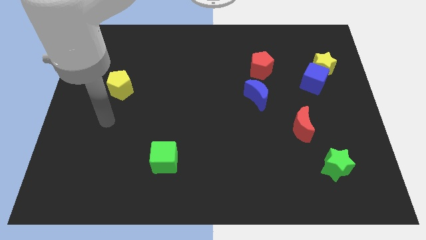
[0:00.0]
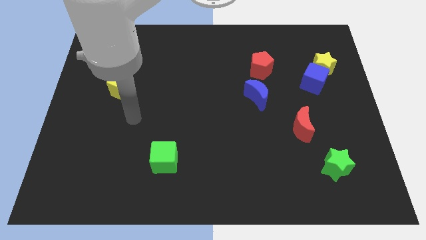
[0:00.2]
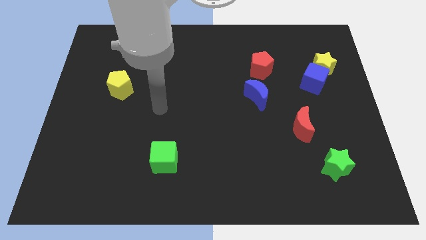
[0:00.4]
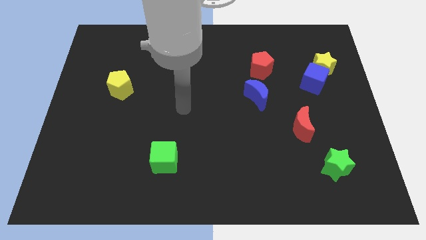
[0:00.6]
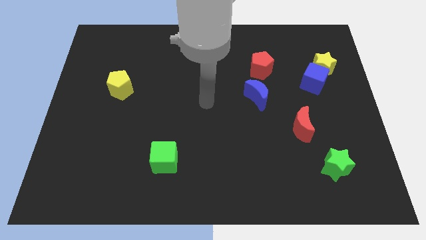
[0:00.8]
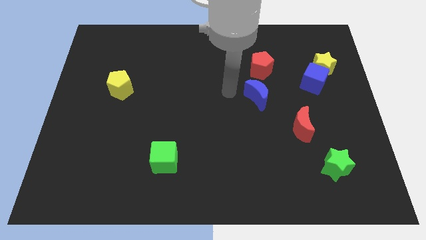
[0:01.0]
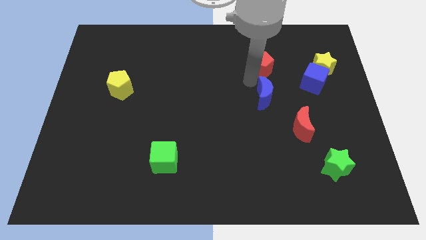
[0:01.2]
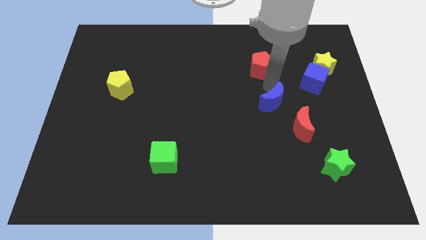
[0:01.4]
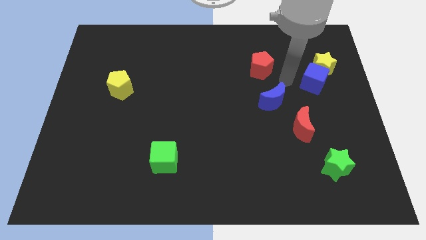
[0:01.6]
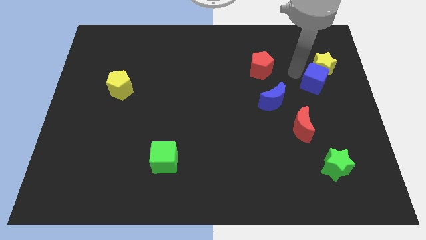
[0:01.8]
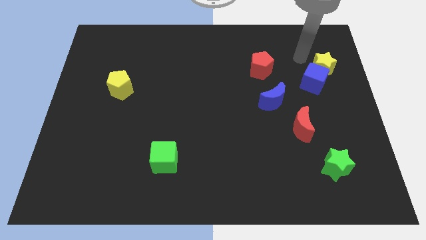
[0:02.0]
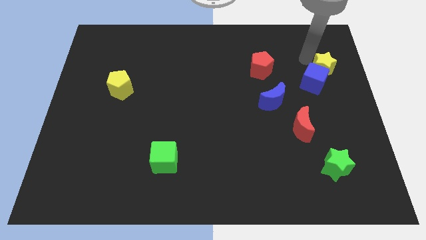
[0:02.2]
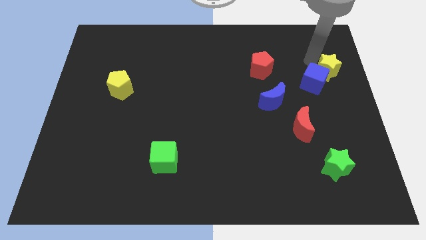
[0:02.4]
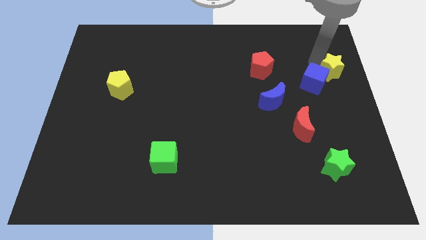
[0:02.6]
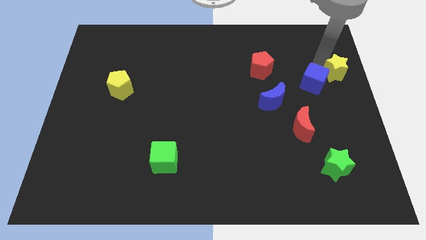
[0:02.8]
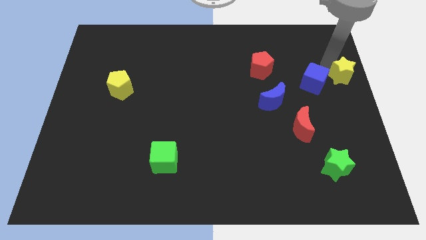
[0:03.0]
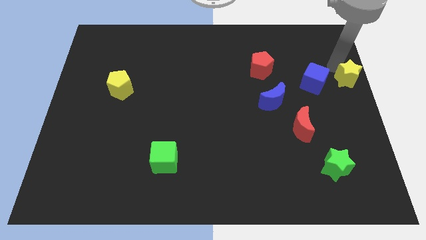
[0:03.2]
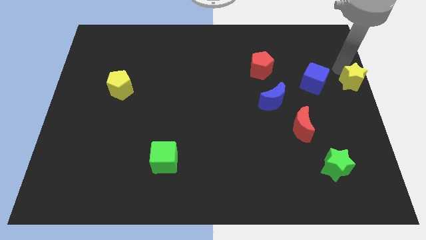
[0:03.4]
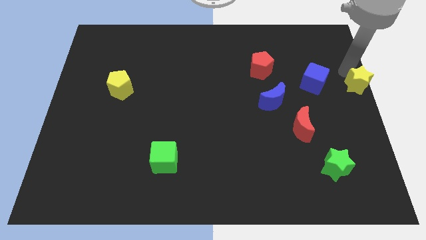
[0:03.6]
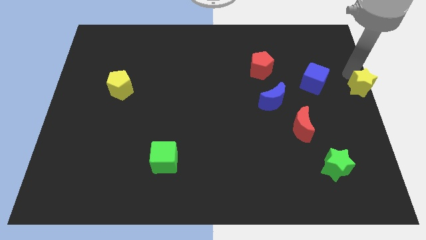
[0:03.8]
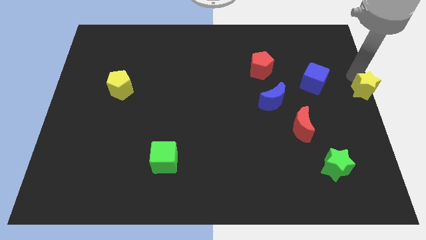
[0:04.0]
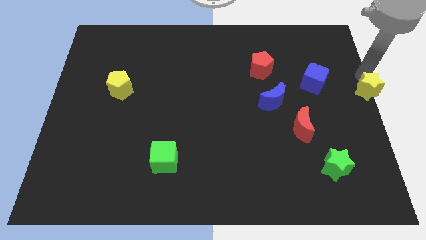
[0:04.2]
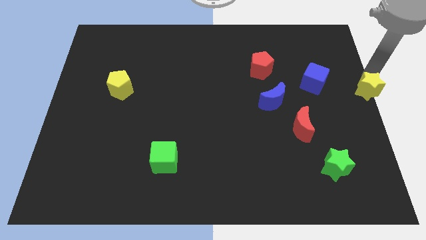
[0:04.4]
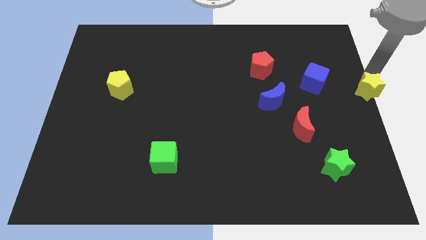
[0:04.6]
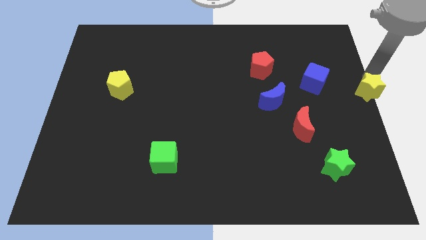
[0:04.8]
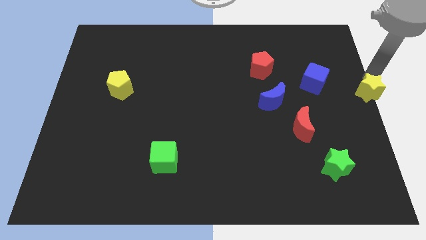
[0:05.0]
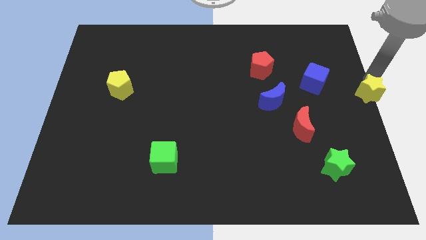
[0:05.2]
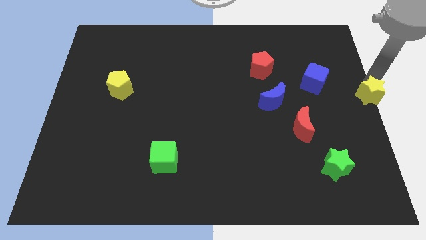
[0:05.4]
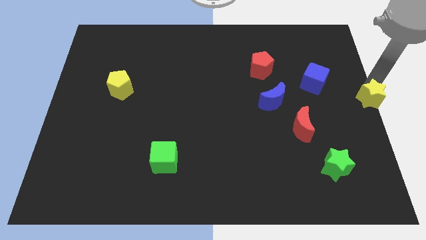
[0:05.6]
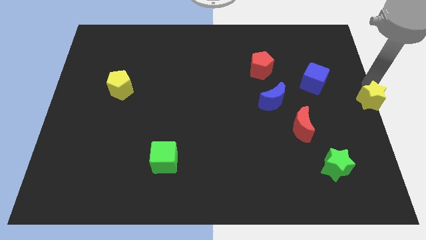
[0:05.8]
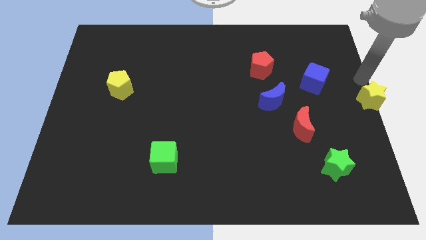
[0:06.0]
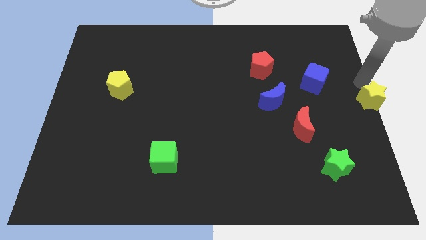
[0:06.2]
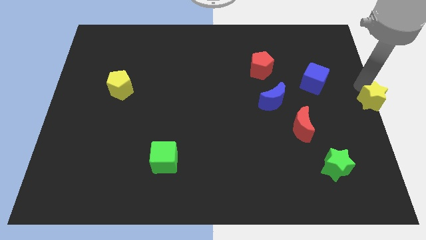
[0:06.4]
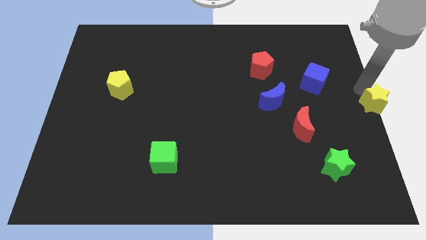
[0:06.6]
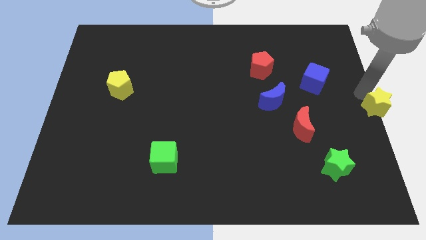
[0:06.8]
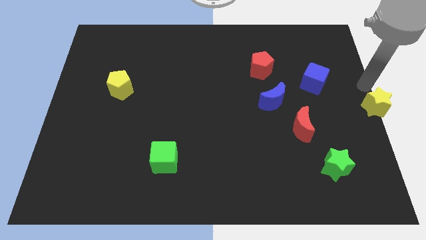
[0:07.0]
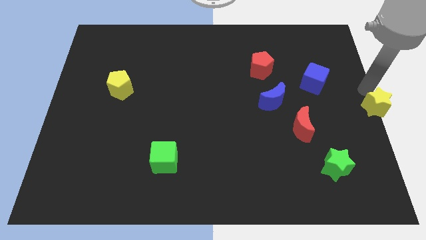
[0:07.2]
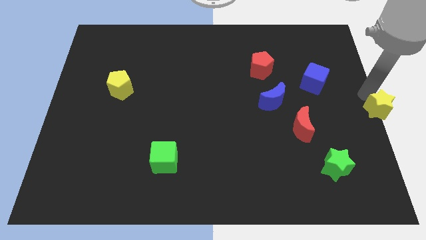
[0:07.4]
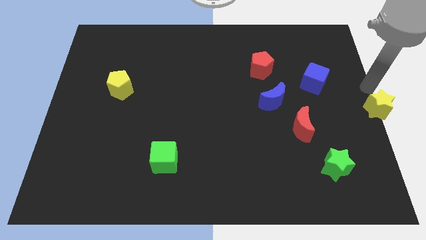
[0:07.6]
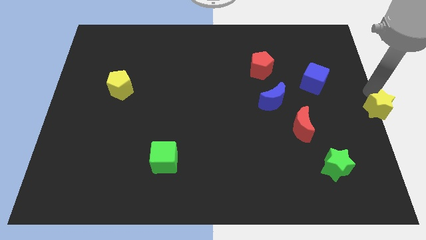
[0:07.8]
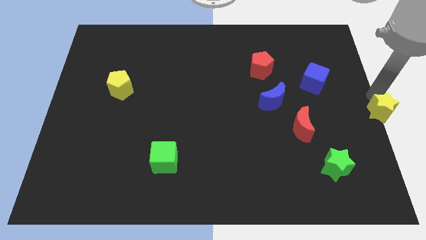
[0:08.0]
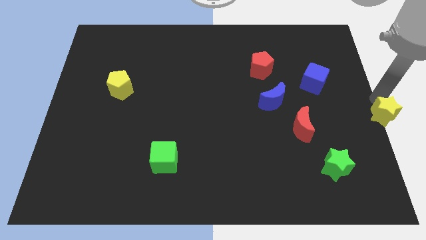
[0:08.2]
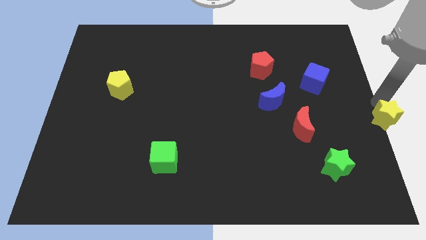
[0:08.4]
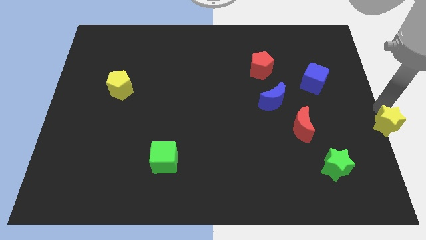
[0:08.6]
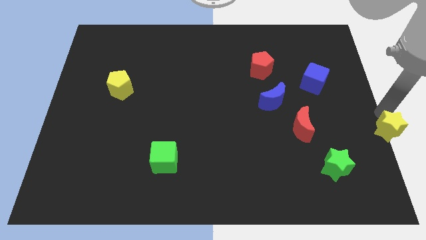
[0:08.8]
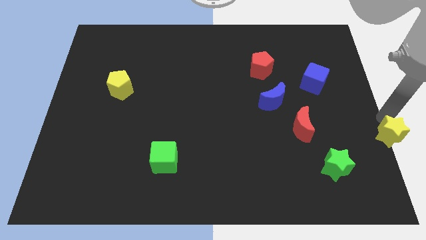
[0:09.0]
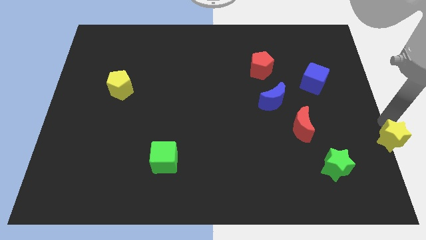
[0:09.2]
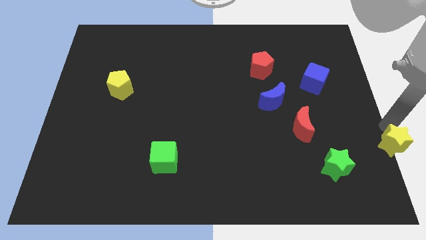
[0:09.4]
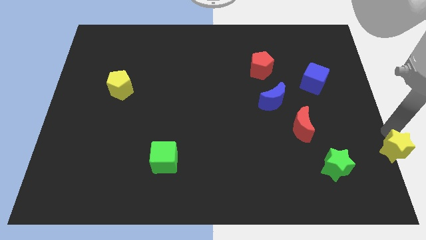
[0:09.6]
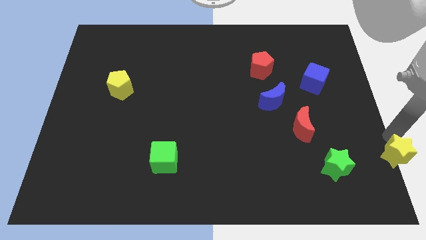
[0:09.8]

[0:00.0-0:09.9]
push the yellow star to the bottom right of the board
